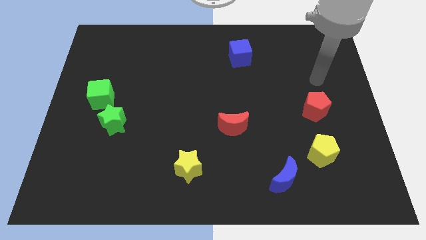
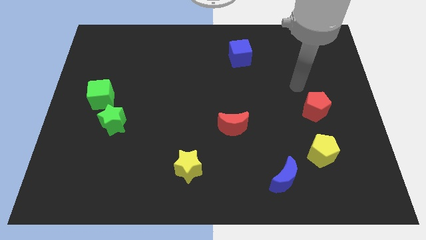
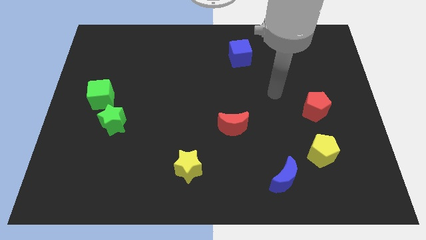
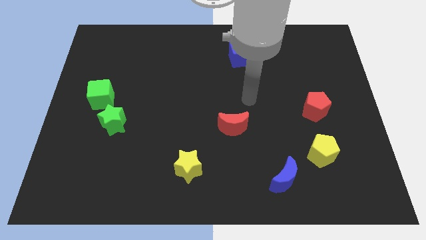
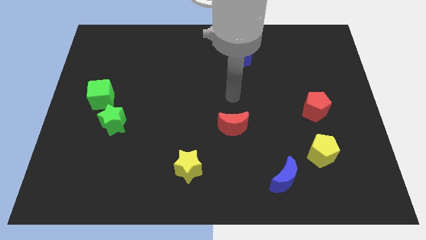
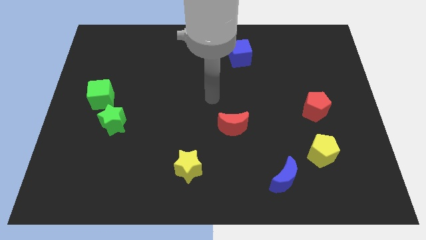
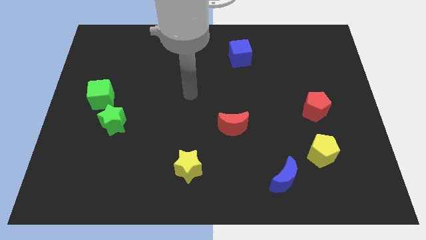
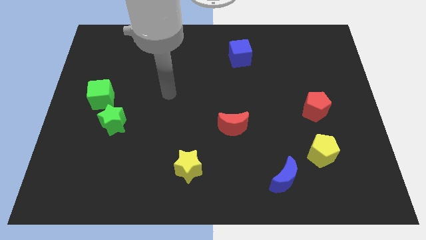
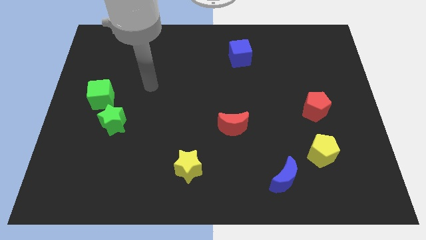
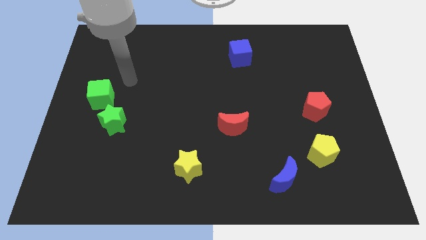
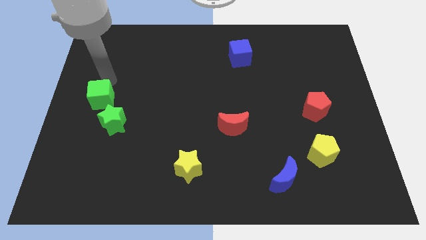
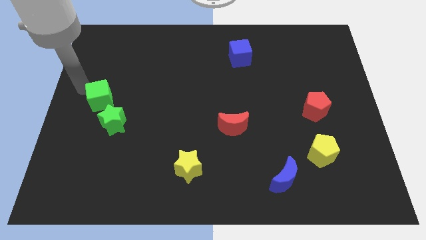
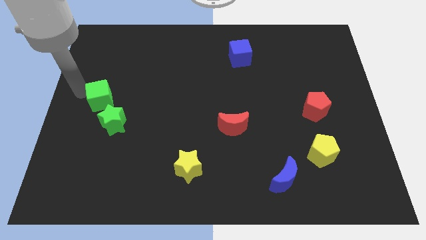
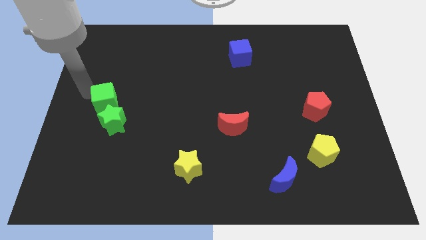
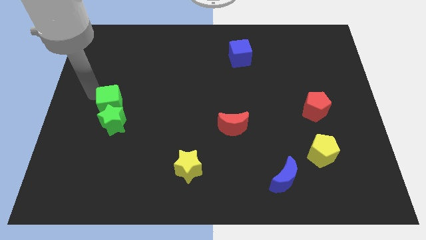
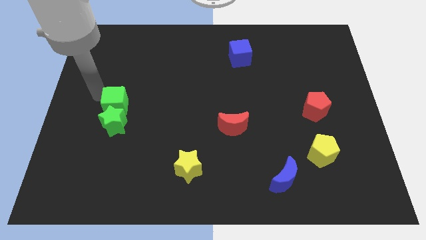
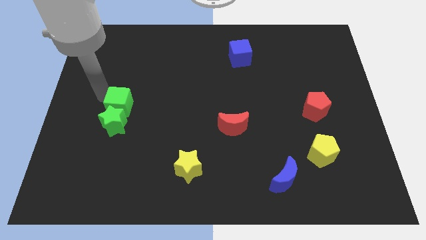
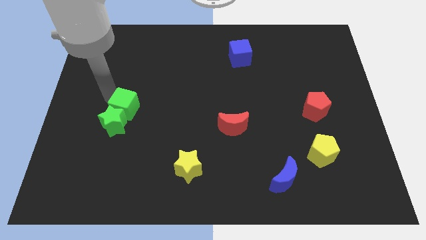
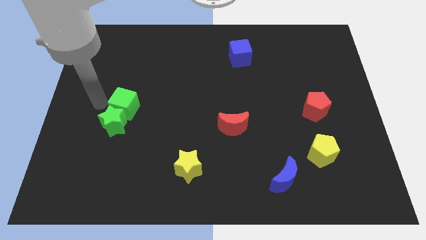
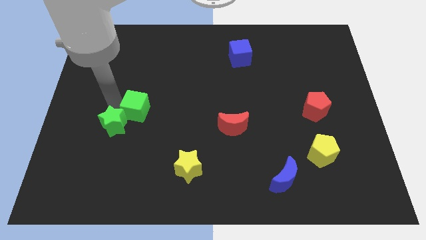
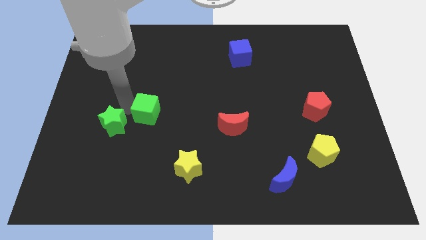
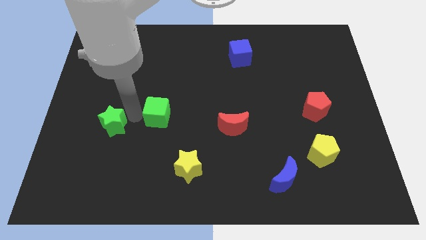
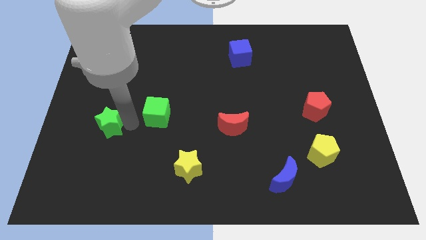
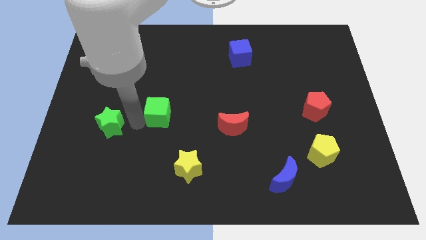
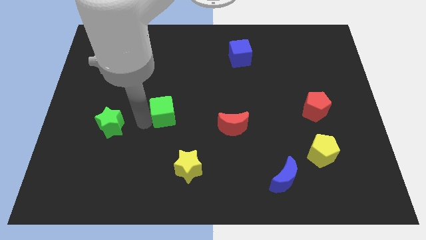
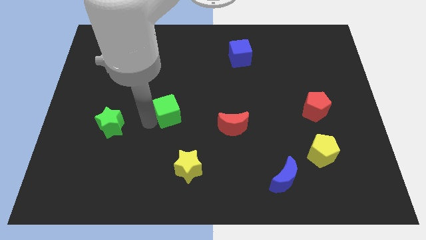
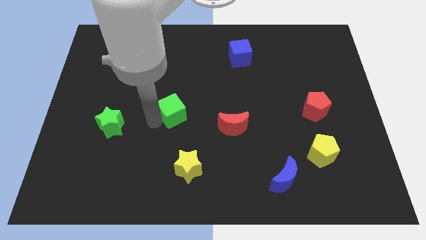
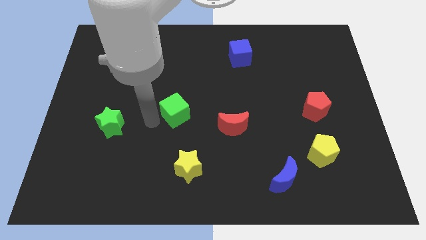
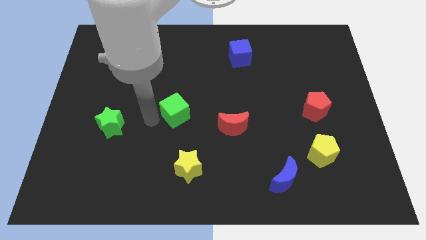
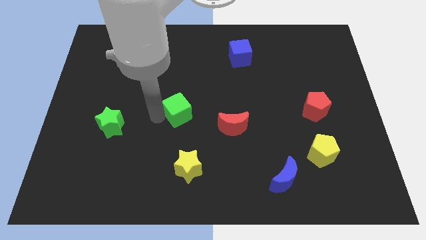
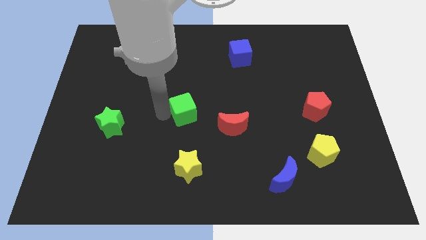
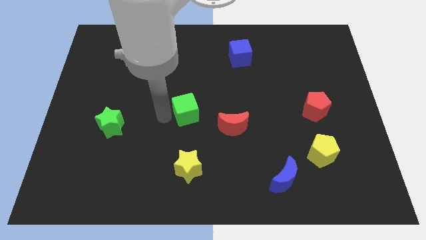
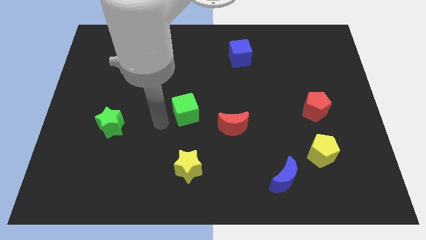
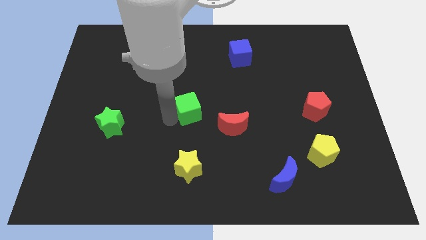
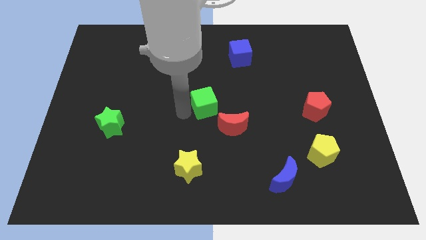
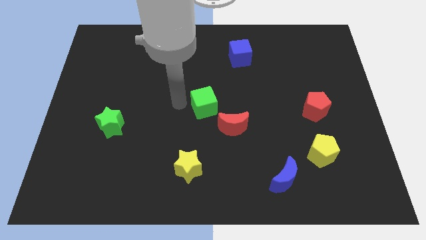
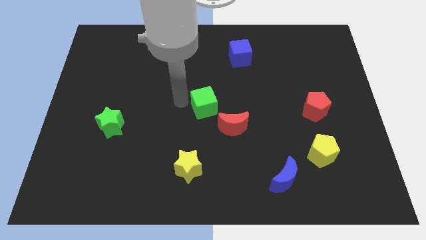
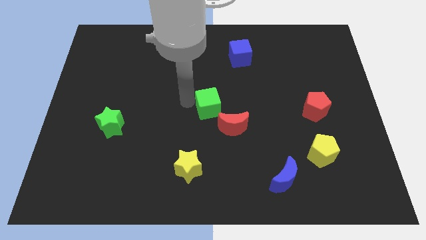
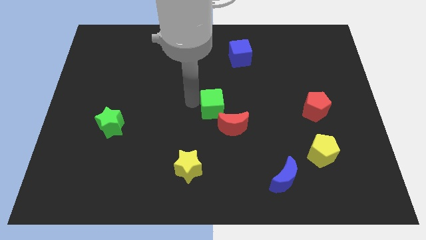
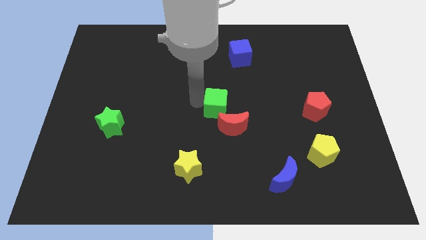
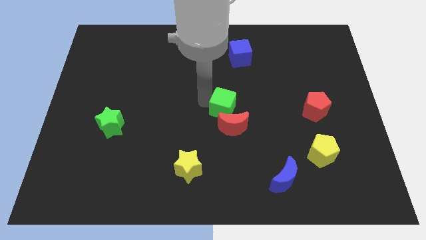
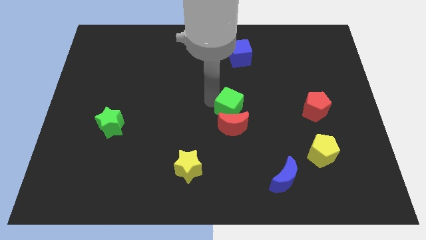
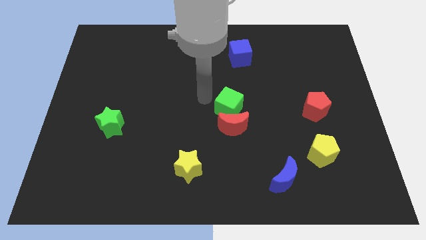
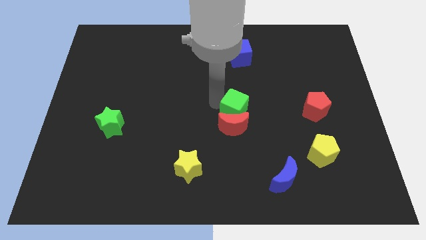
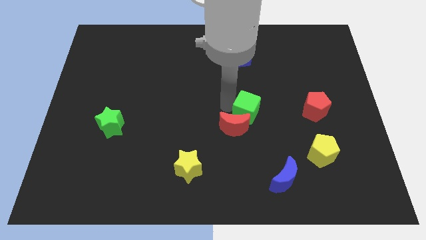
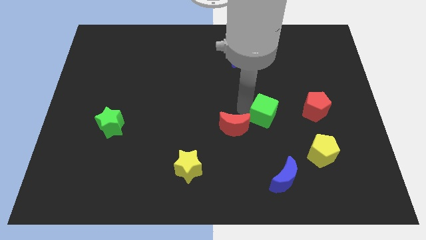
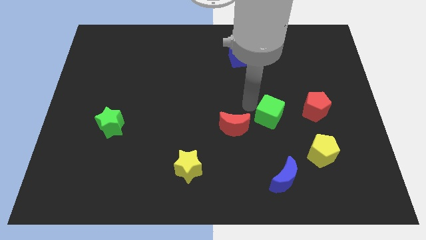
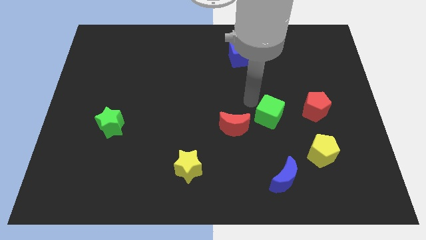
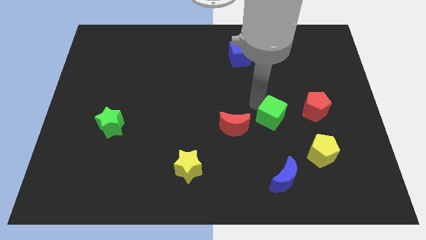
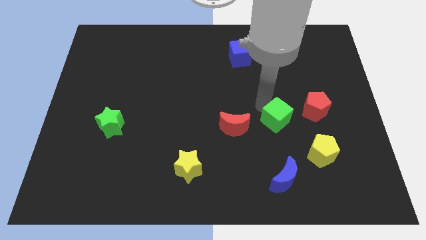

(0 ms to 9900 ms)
push the green cube to the top left of the yellow pentagon

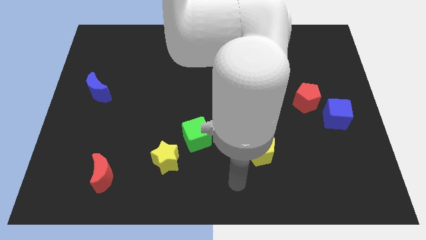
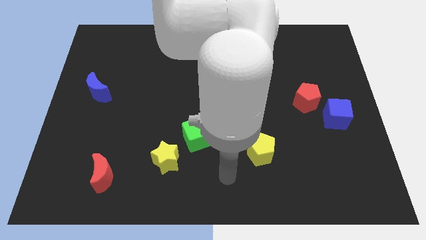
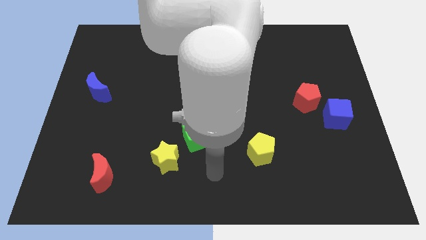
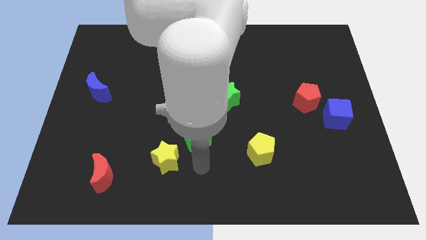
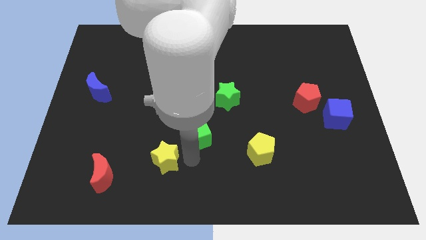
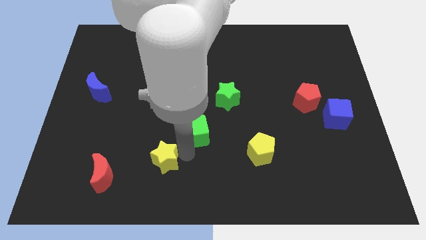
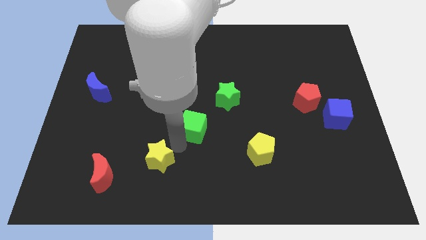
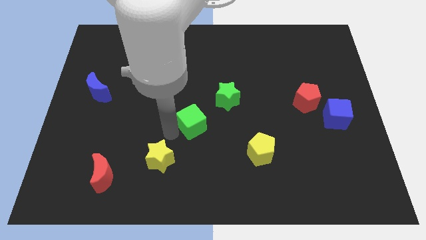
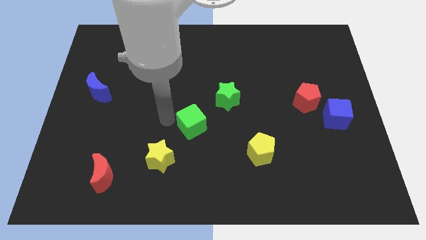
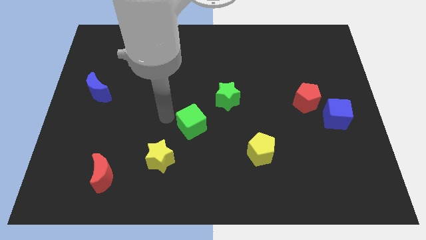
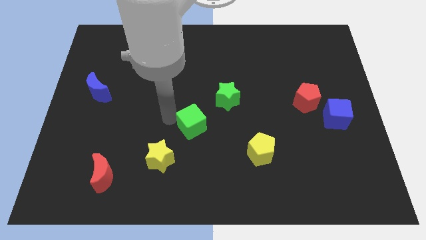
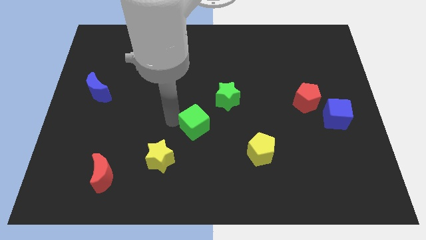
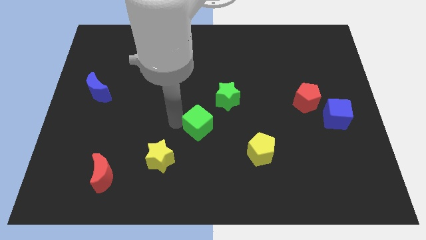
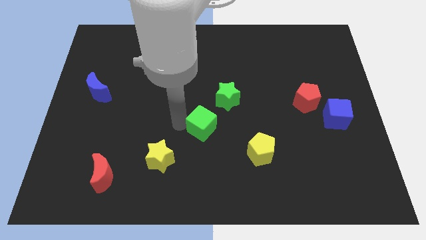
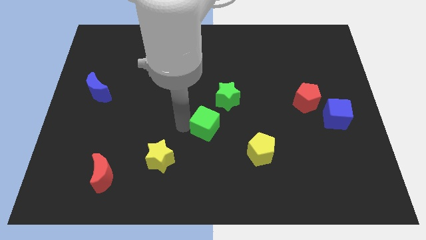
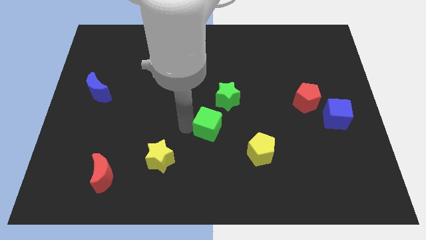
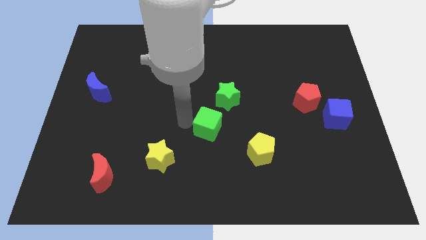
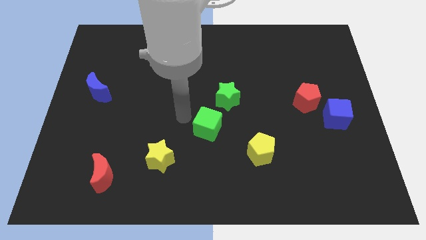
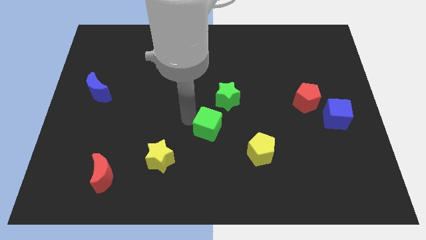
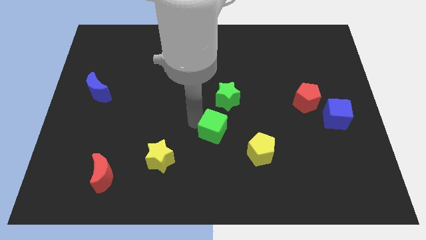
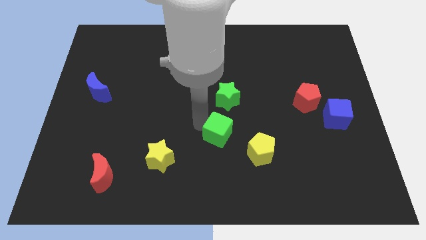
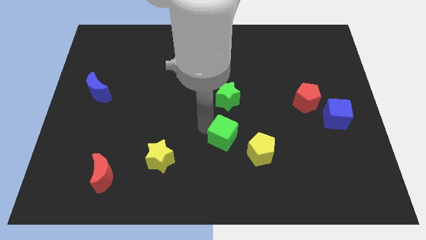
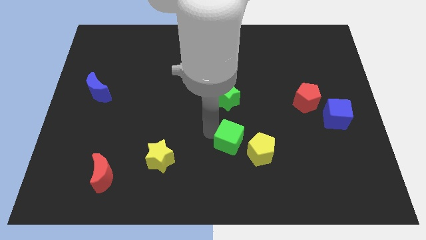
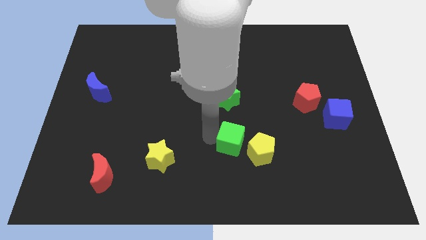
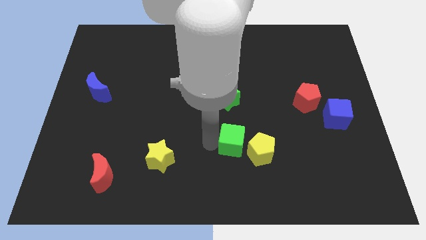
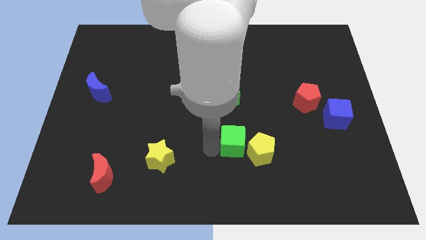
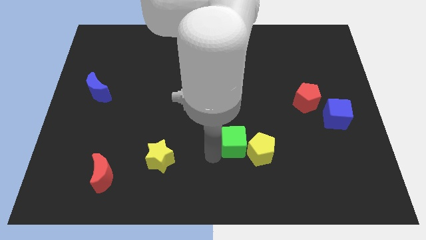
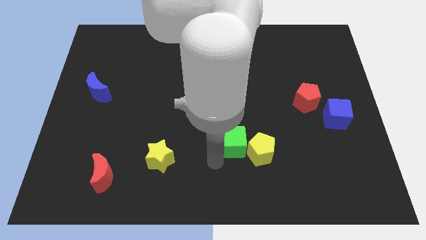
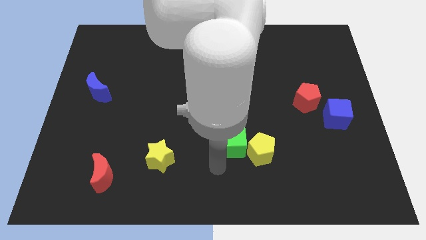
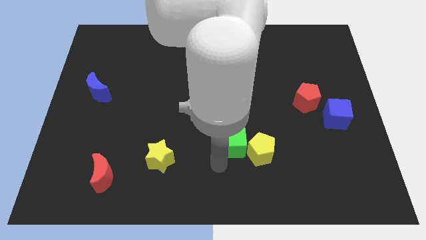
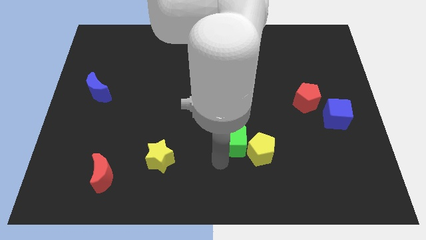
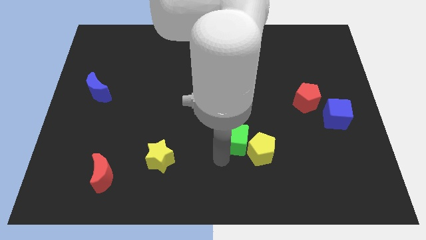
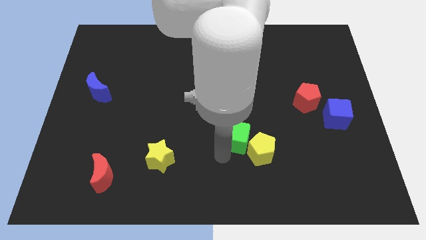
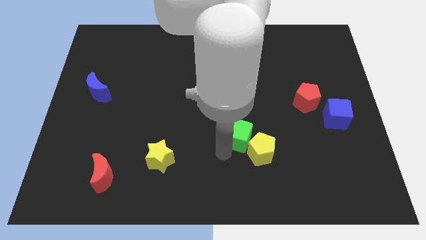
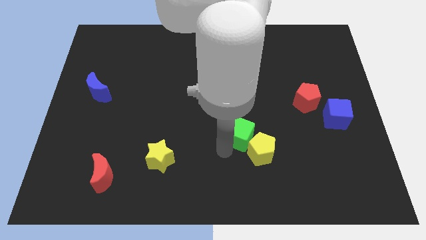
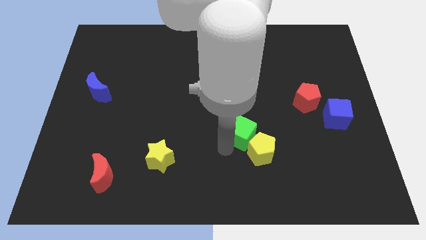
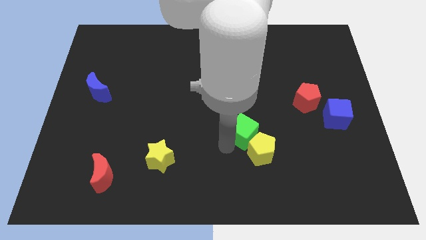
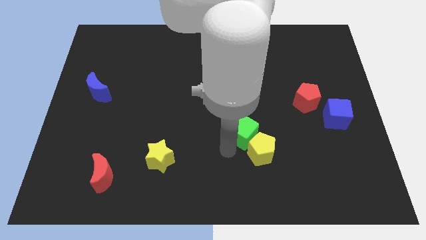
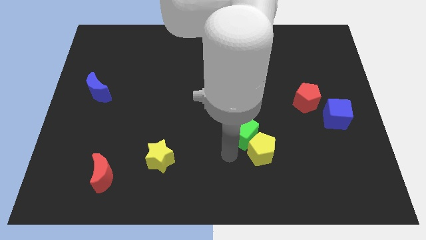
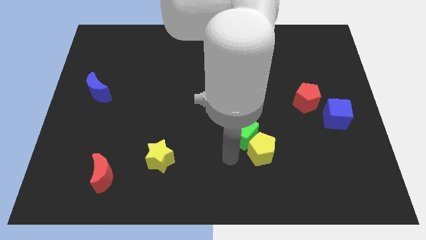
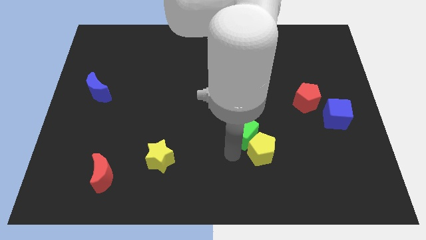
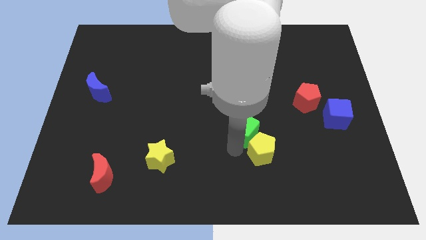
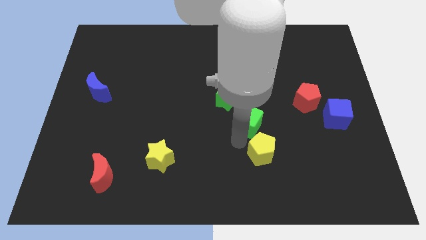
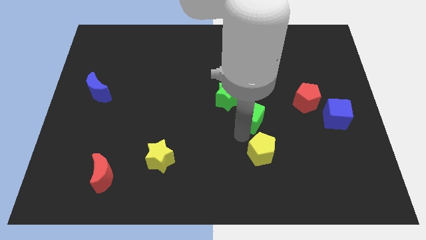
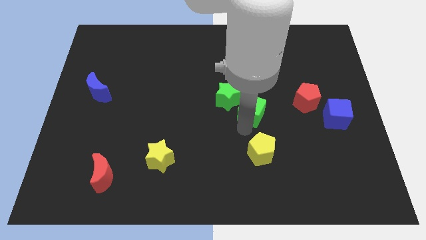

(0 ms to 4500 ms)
put the green cube to the left of the red pentagon
